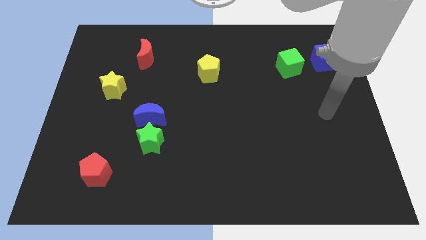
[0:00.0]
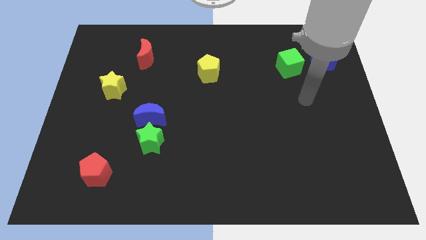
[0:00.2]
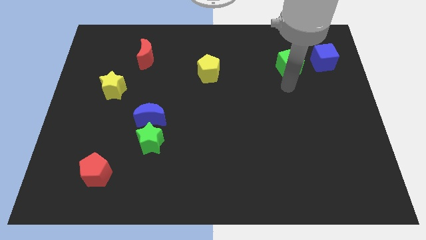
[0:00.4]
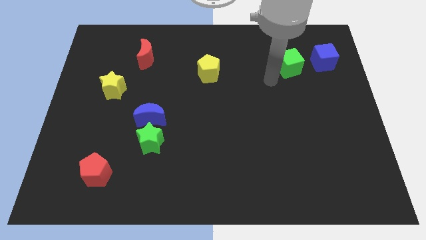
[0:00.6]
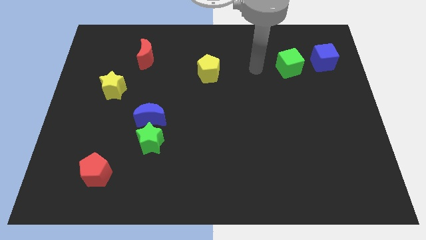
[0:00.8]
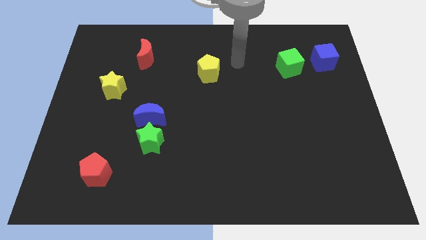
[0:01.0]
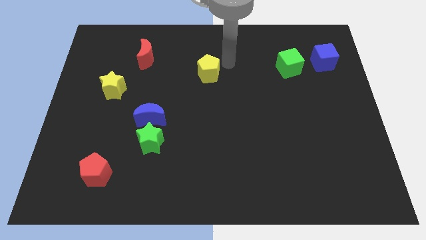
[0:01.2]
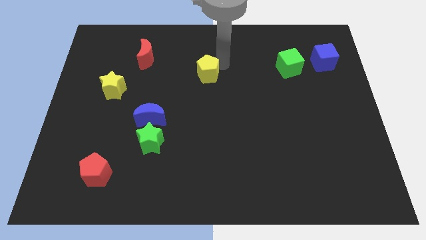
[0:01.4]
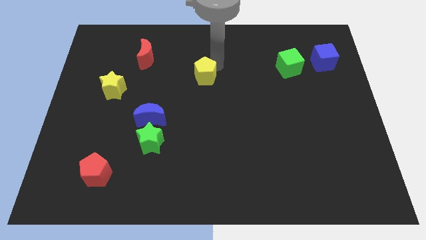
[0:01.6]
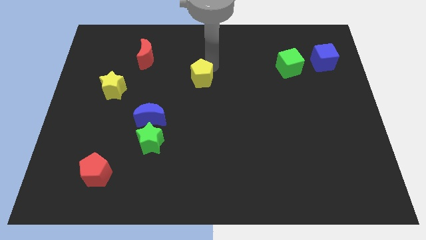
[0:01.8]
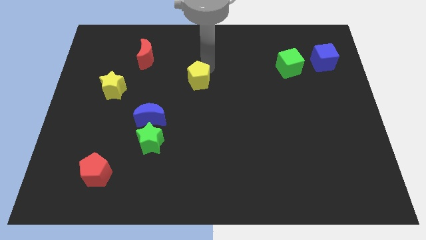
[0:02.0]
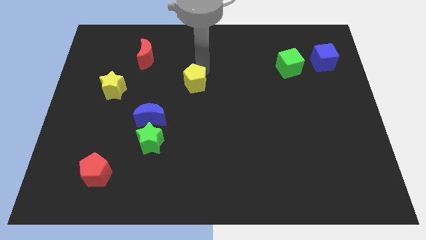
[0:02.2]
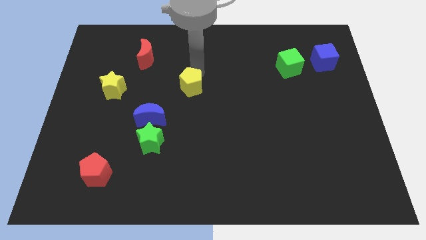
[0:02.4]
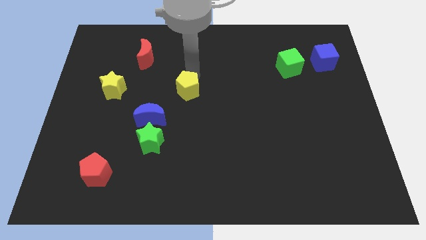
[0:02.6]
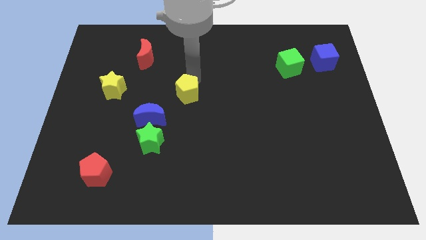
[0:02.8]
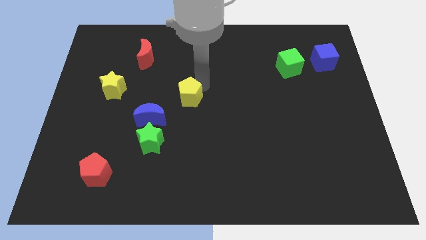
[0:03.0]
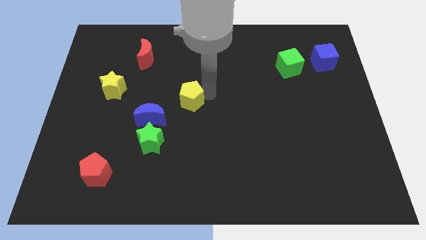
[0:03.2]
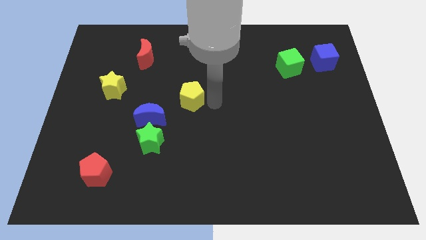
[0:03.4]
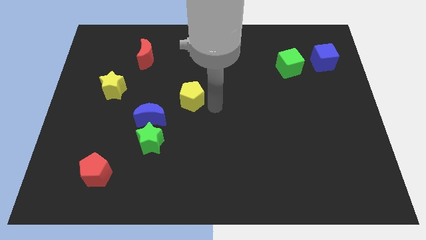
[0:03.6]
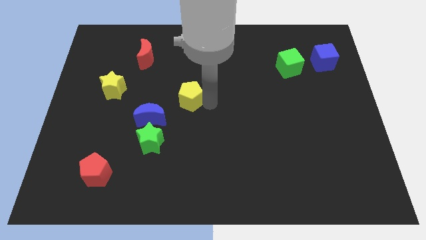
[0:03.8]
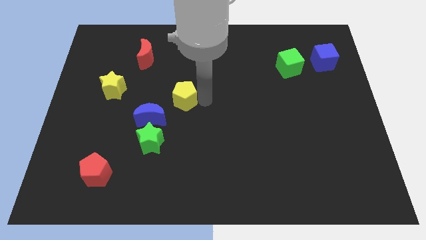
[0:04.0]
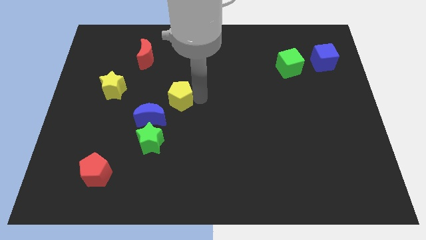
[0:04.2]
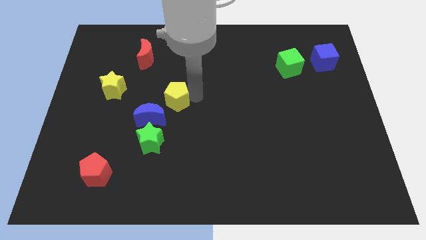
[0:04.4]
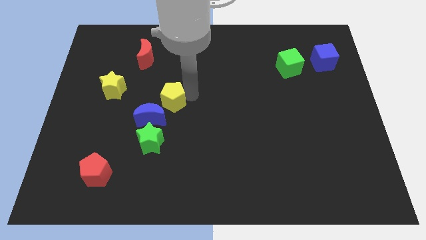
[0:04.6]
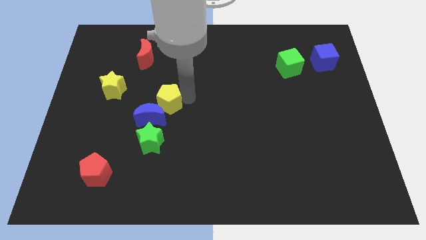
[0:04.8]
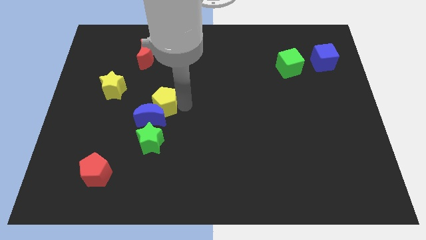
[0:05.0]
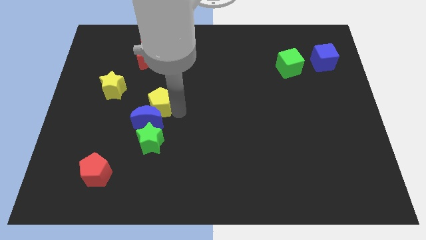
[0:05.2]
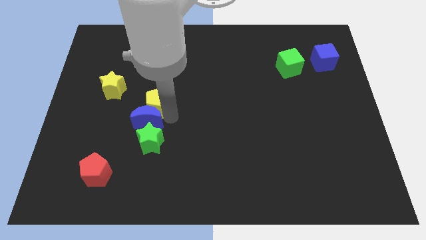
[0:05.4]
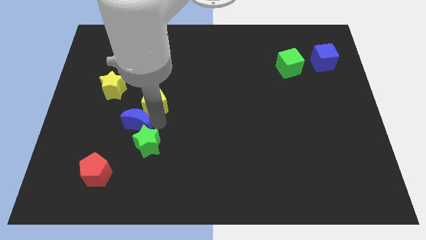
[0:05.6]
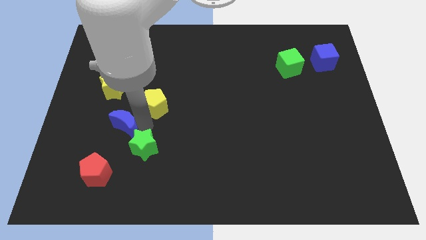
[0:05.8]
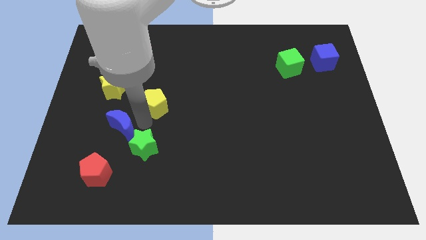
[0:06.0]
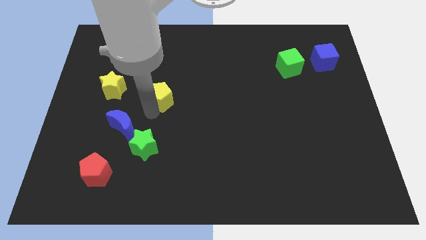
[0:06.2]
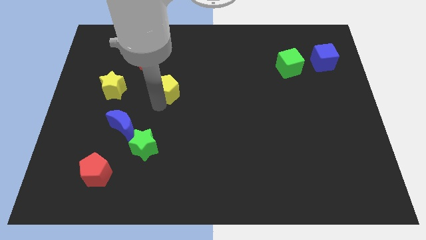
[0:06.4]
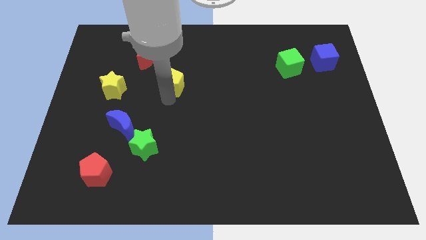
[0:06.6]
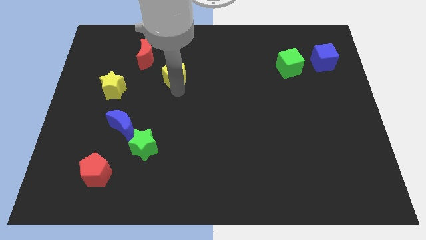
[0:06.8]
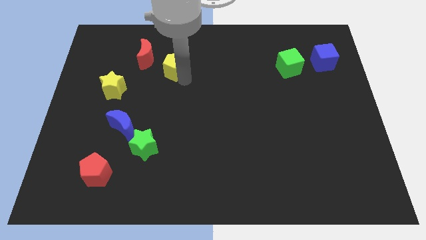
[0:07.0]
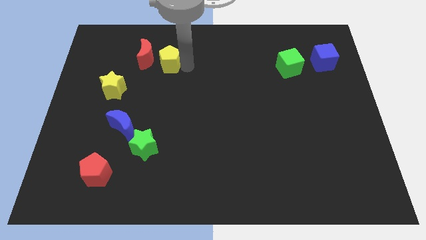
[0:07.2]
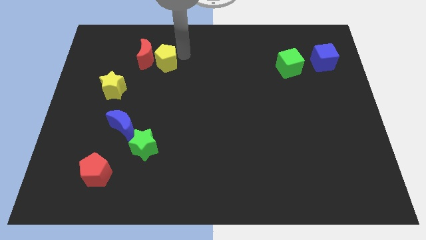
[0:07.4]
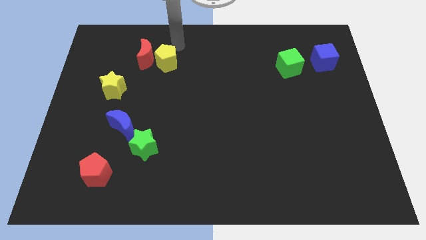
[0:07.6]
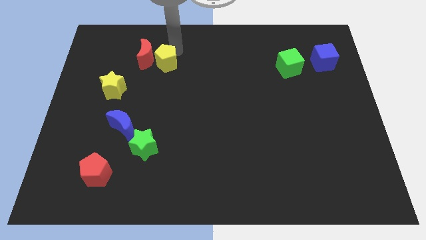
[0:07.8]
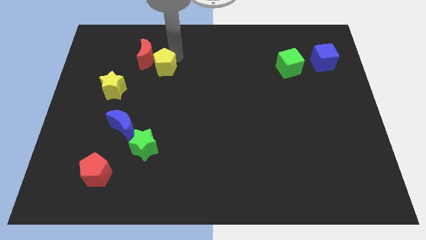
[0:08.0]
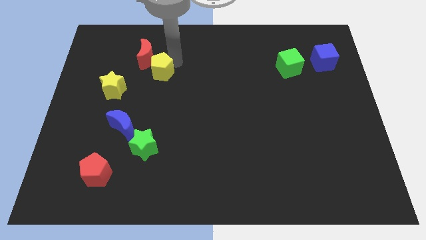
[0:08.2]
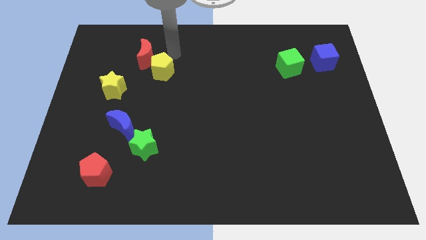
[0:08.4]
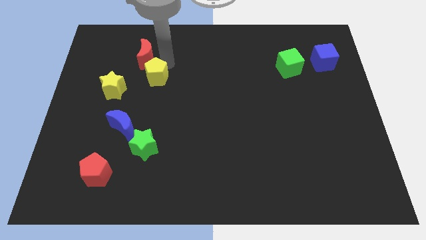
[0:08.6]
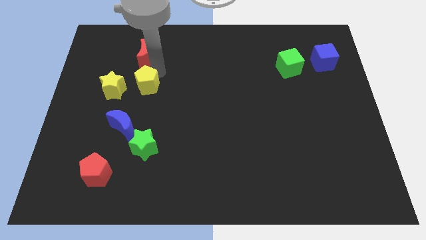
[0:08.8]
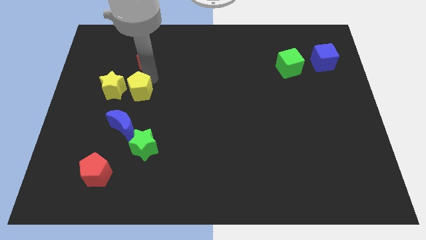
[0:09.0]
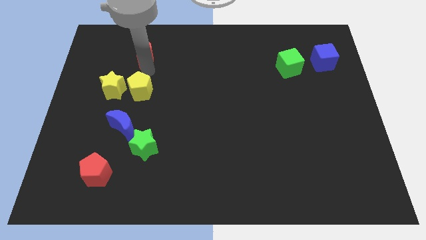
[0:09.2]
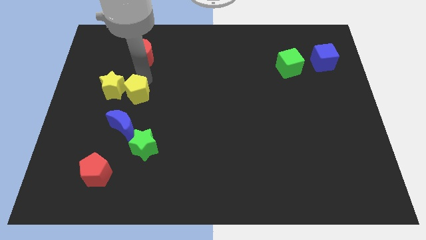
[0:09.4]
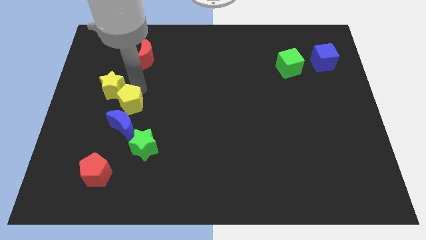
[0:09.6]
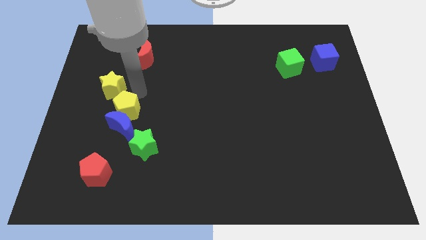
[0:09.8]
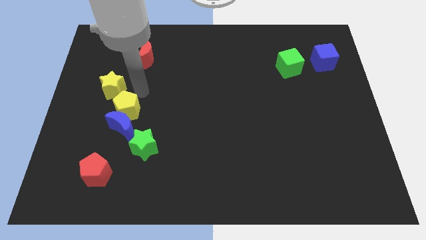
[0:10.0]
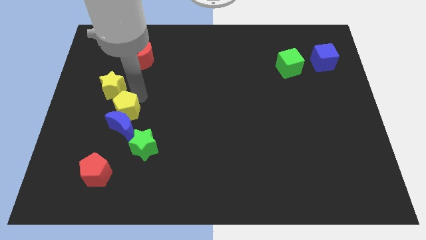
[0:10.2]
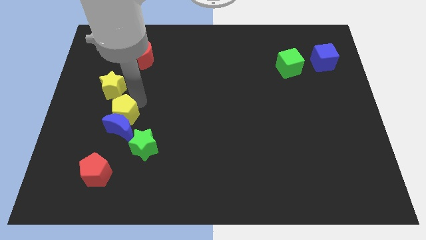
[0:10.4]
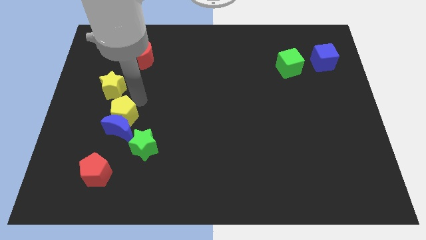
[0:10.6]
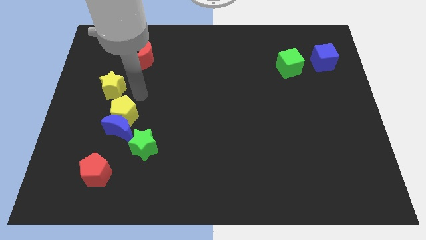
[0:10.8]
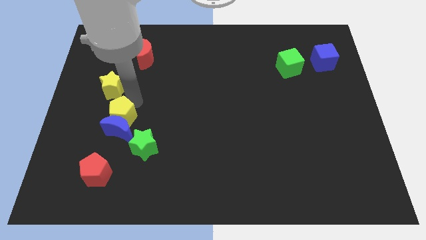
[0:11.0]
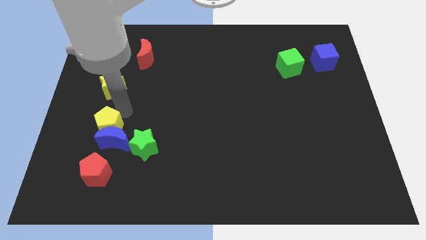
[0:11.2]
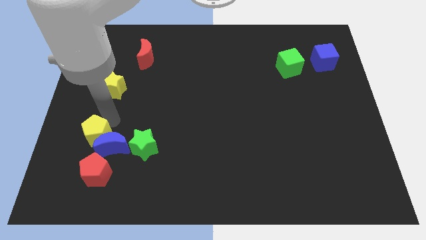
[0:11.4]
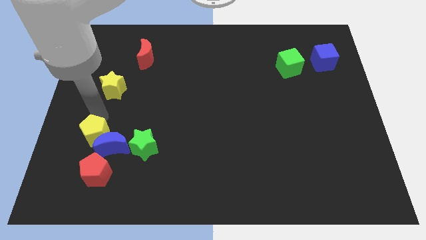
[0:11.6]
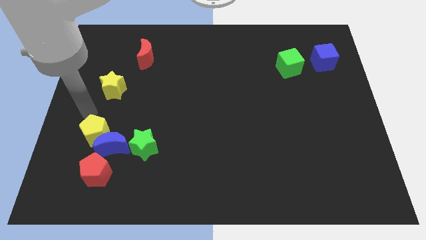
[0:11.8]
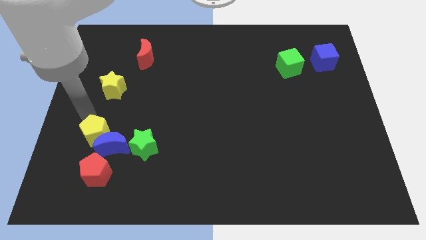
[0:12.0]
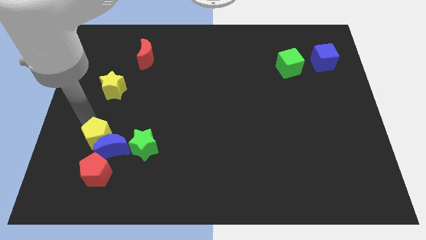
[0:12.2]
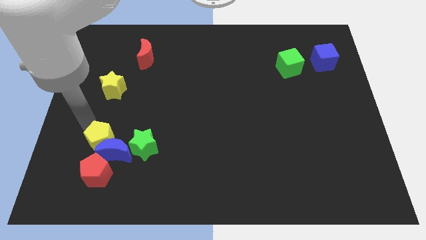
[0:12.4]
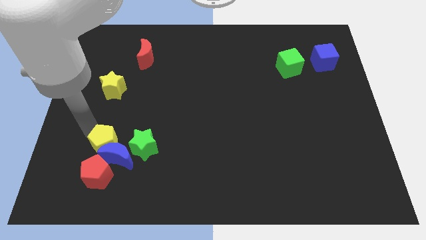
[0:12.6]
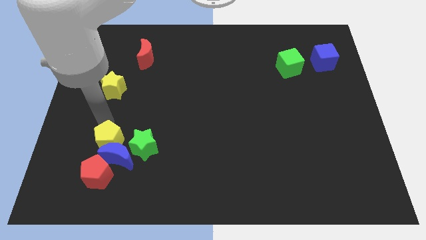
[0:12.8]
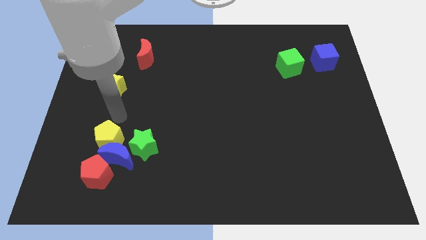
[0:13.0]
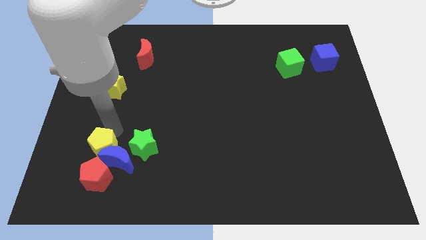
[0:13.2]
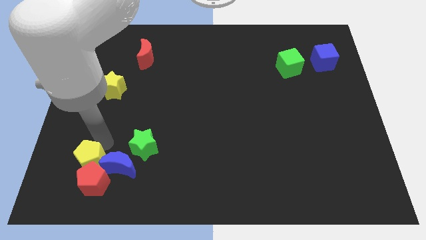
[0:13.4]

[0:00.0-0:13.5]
move the yellow pentagon next to the red pentagon
